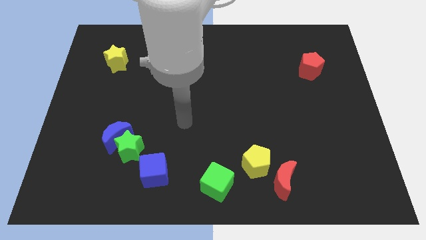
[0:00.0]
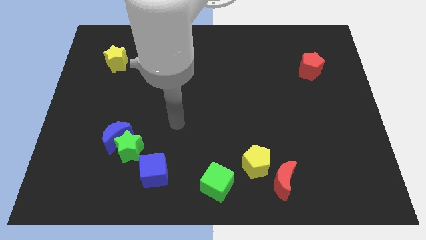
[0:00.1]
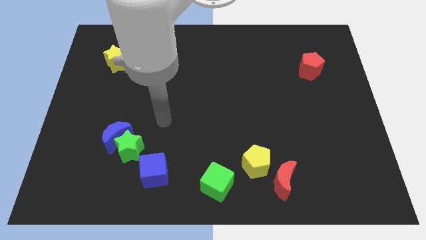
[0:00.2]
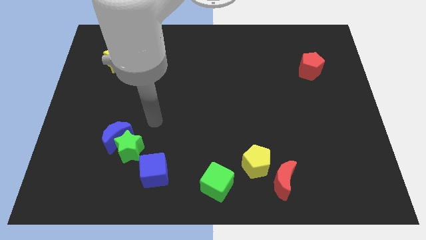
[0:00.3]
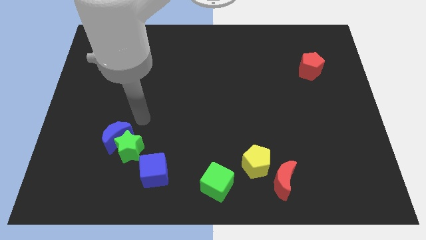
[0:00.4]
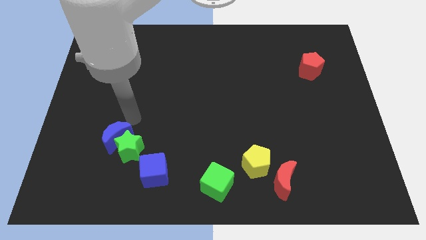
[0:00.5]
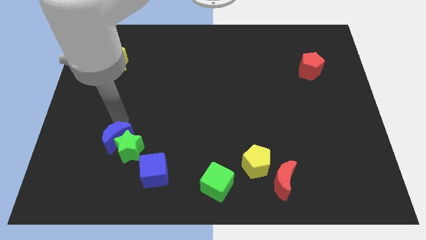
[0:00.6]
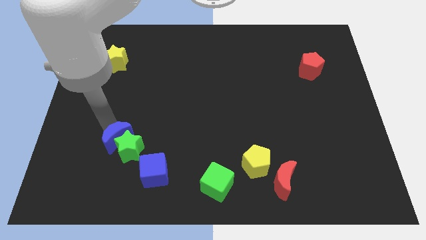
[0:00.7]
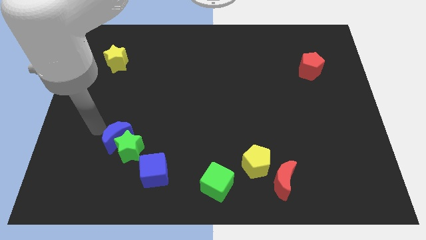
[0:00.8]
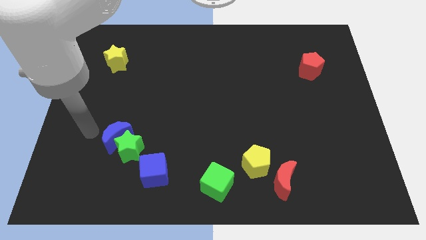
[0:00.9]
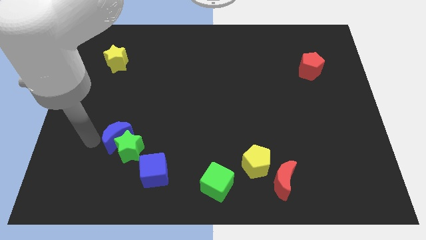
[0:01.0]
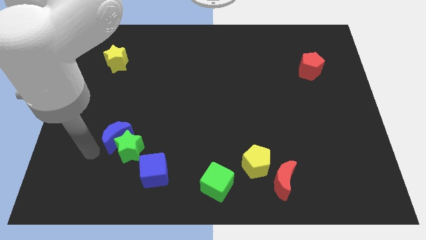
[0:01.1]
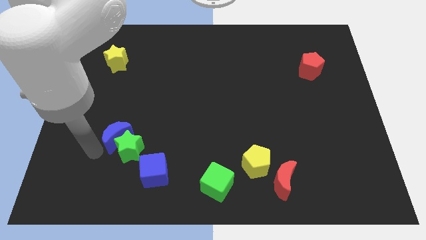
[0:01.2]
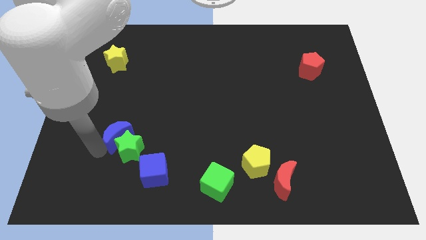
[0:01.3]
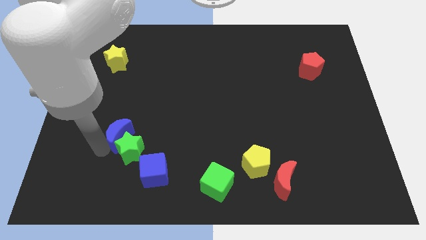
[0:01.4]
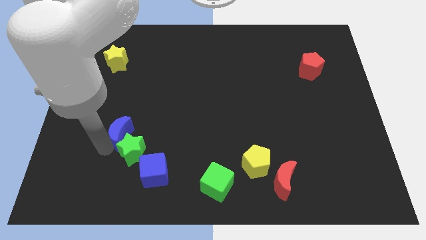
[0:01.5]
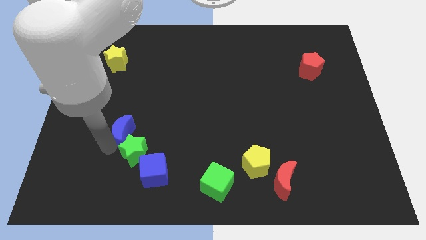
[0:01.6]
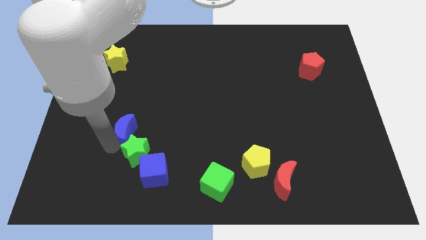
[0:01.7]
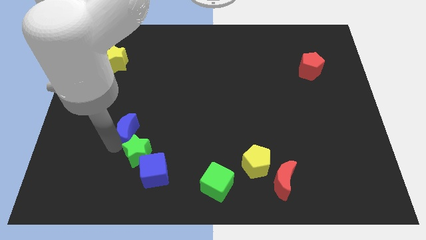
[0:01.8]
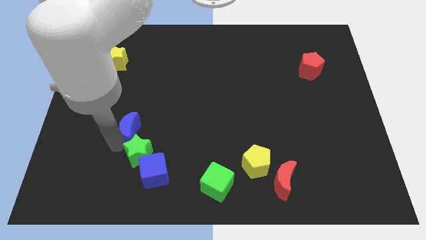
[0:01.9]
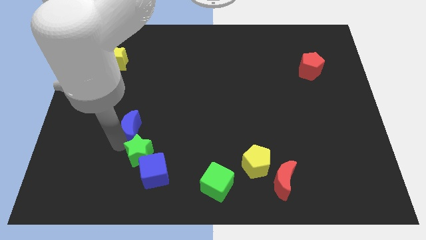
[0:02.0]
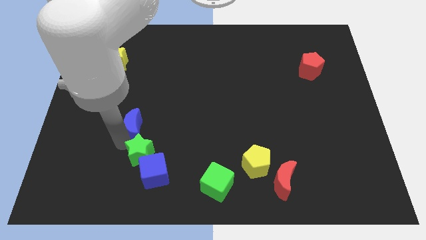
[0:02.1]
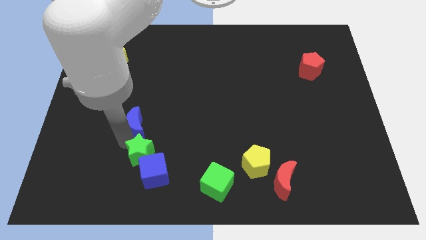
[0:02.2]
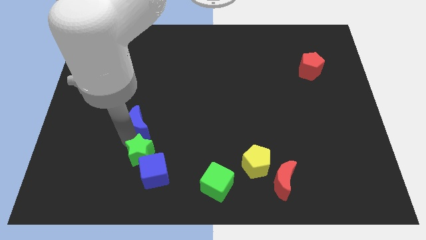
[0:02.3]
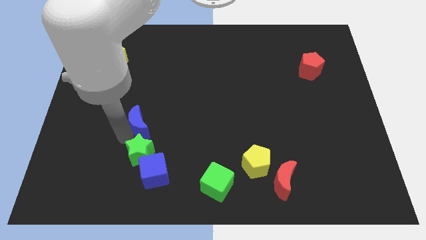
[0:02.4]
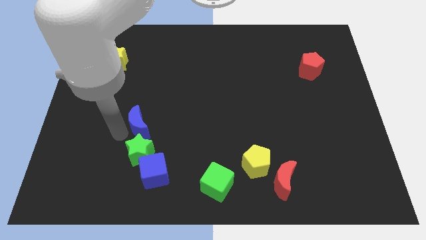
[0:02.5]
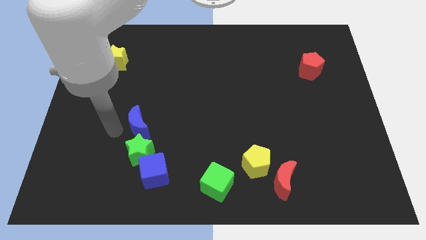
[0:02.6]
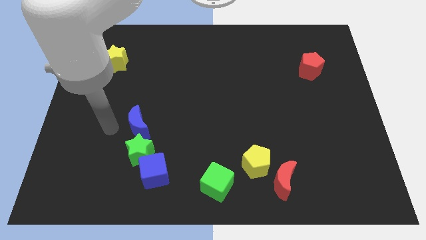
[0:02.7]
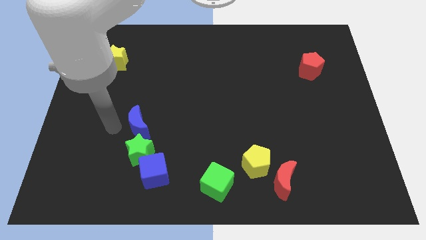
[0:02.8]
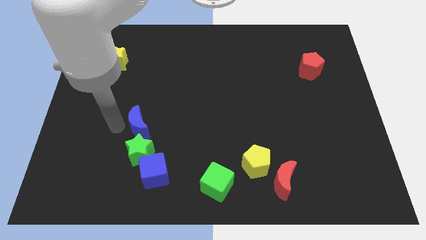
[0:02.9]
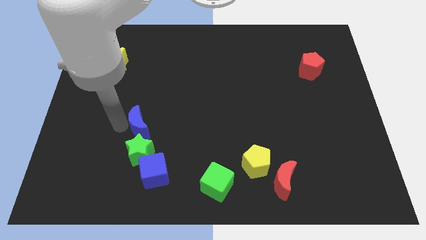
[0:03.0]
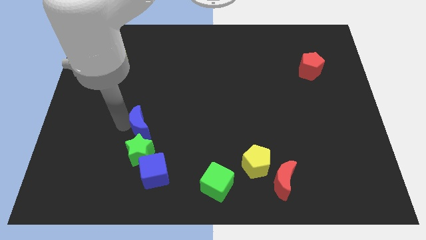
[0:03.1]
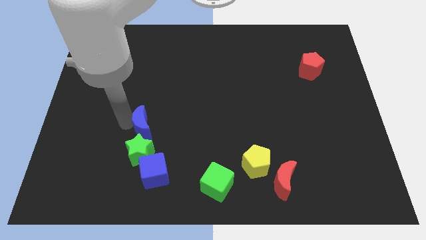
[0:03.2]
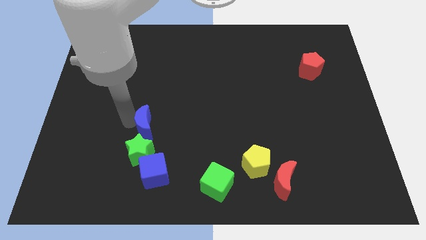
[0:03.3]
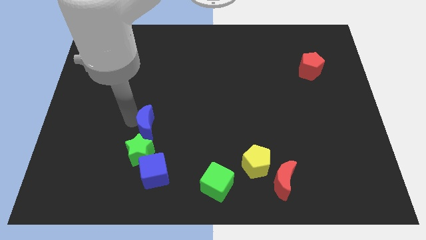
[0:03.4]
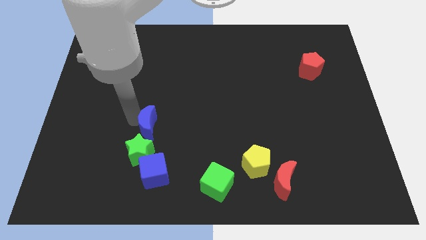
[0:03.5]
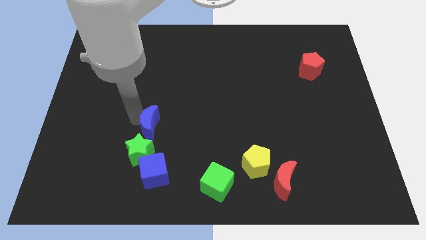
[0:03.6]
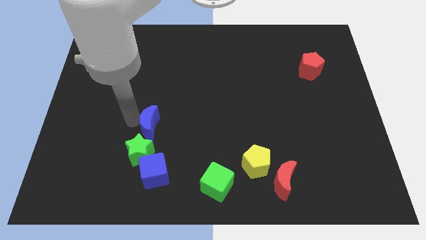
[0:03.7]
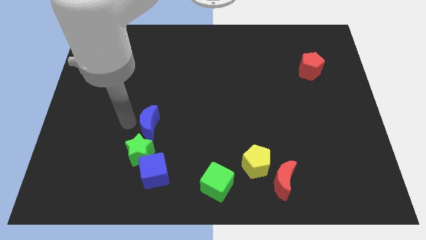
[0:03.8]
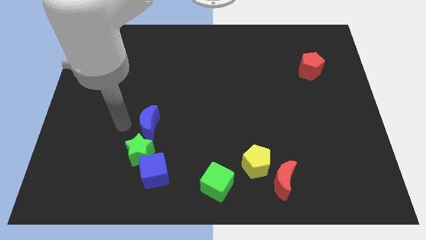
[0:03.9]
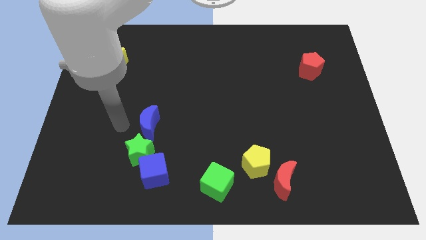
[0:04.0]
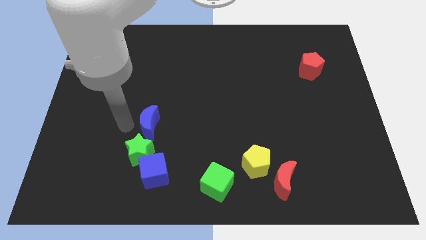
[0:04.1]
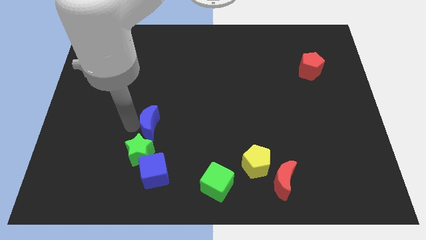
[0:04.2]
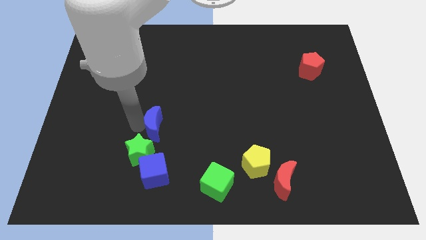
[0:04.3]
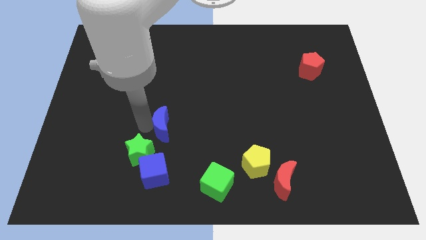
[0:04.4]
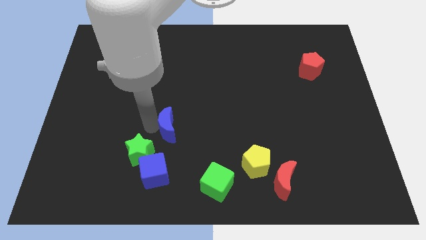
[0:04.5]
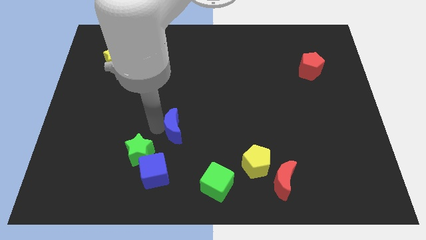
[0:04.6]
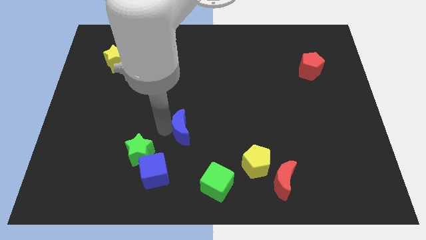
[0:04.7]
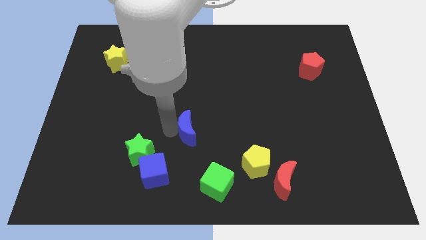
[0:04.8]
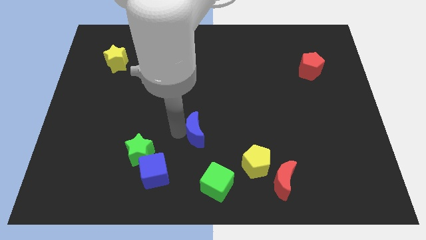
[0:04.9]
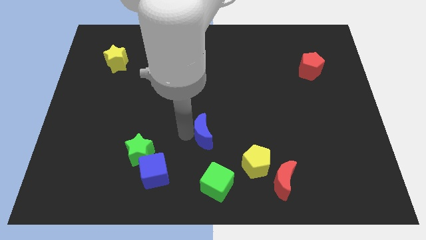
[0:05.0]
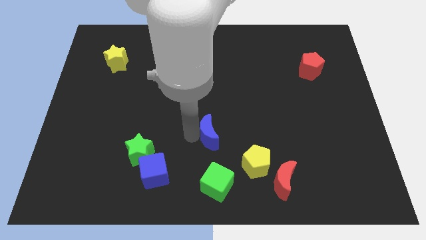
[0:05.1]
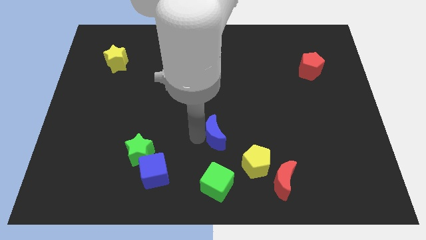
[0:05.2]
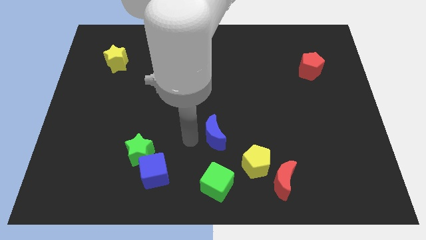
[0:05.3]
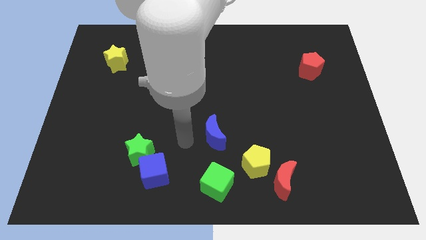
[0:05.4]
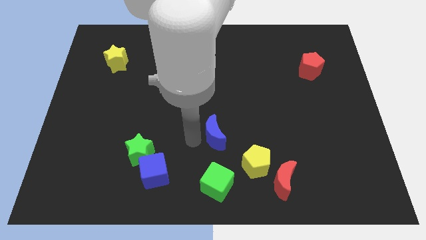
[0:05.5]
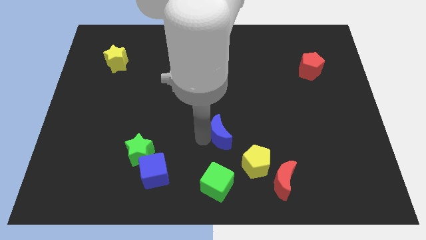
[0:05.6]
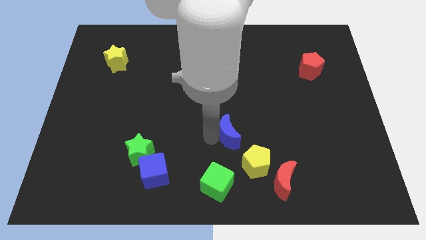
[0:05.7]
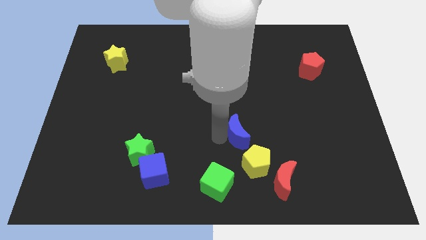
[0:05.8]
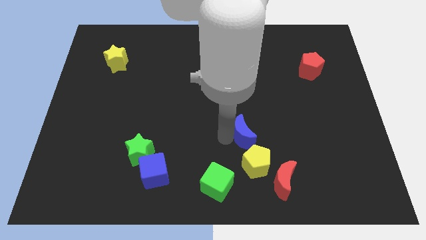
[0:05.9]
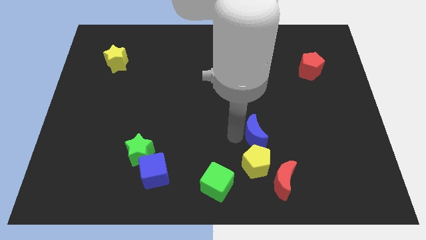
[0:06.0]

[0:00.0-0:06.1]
slide the blue moon to the top side of the red moon

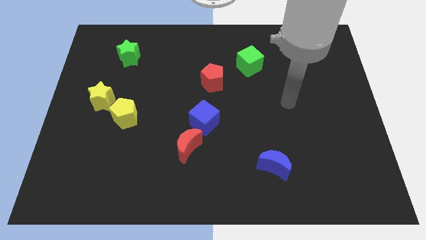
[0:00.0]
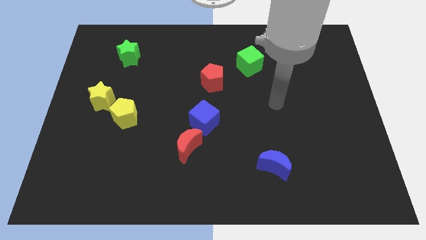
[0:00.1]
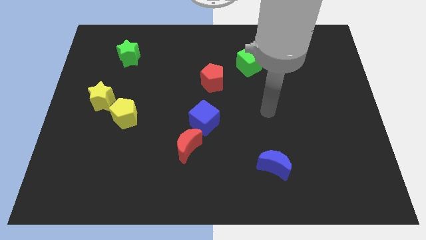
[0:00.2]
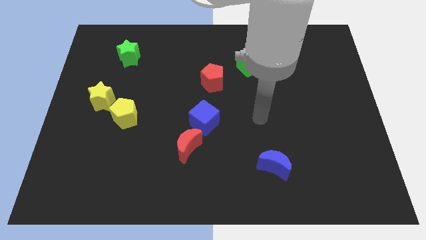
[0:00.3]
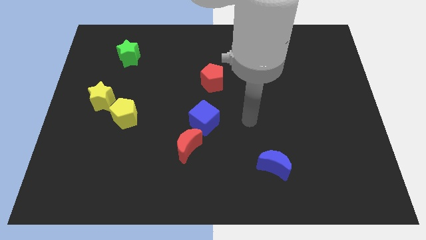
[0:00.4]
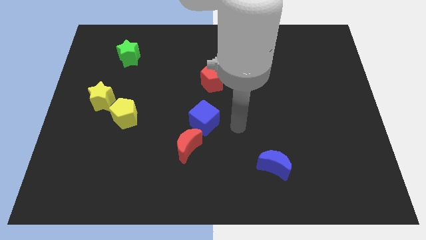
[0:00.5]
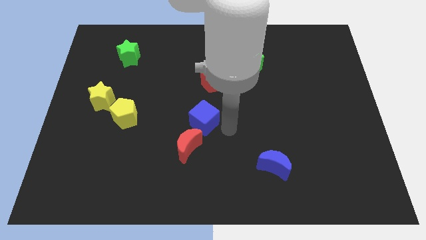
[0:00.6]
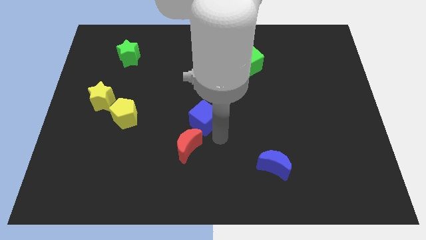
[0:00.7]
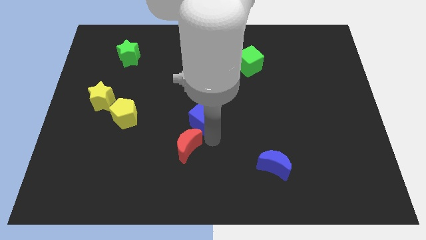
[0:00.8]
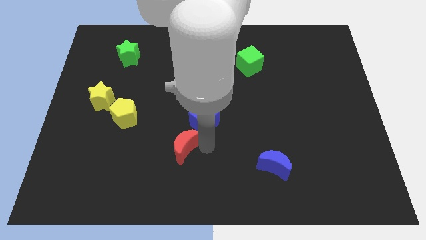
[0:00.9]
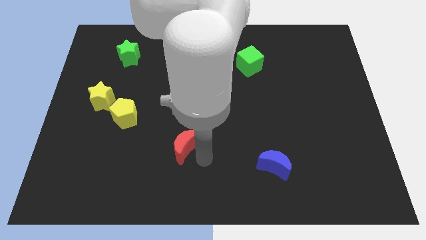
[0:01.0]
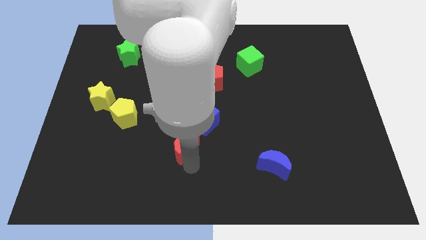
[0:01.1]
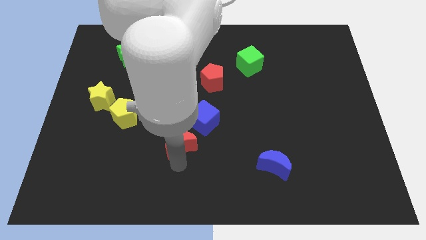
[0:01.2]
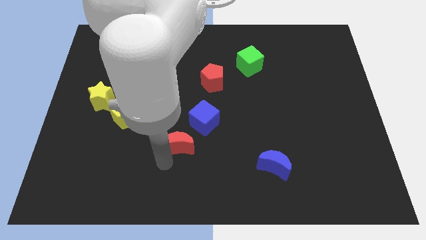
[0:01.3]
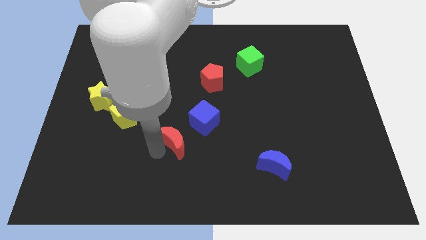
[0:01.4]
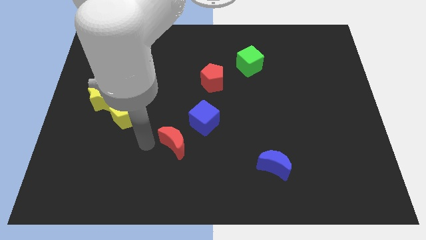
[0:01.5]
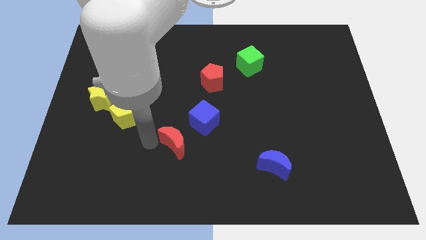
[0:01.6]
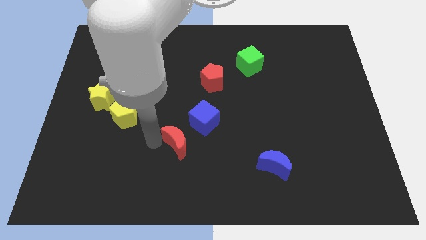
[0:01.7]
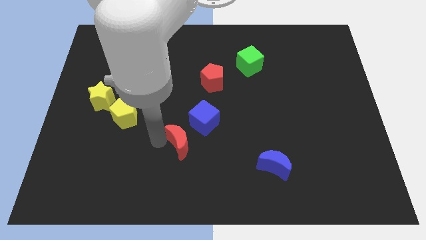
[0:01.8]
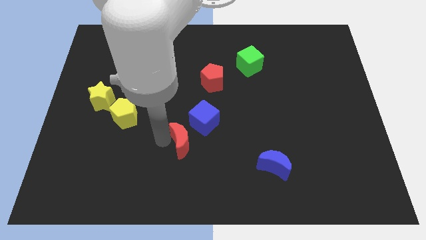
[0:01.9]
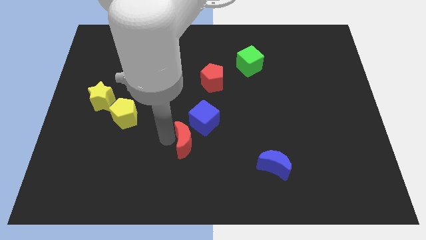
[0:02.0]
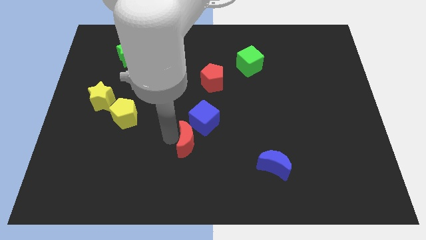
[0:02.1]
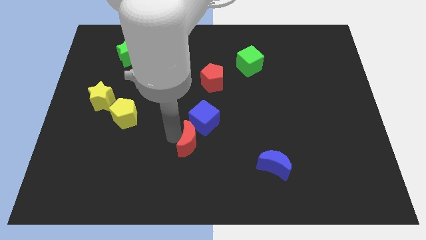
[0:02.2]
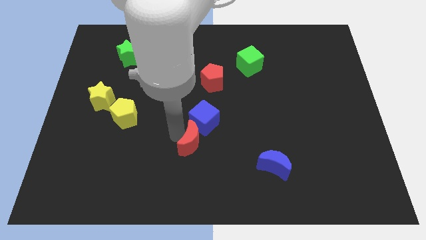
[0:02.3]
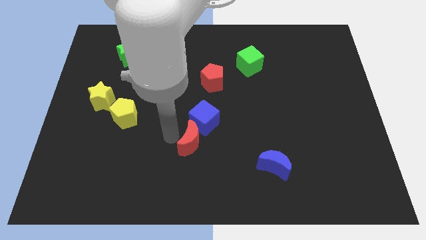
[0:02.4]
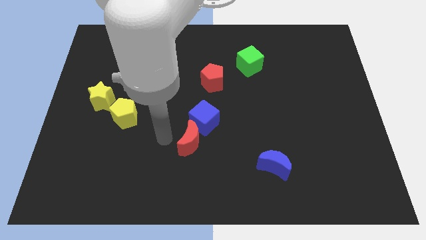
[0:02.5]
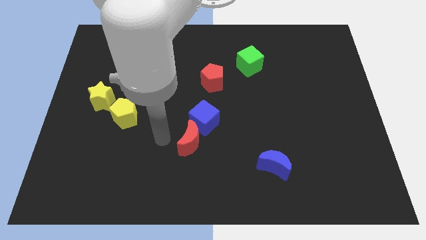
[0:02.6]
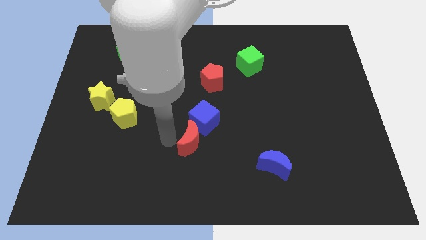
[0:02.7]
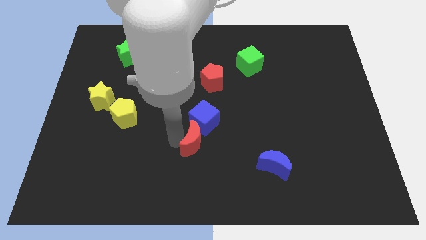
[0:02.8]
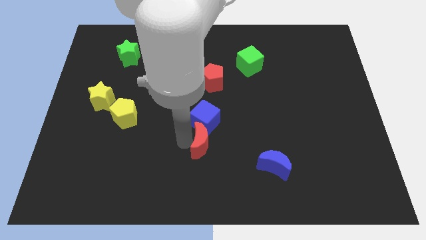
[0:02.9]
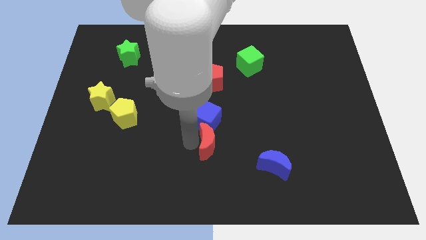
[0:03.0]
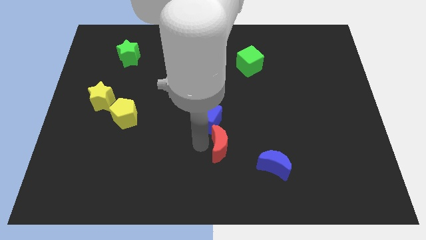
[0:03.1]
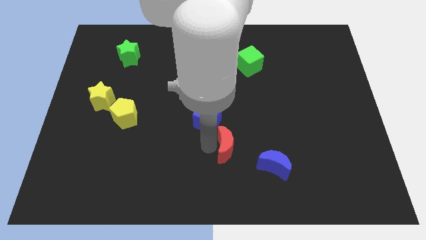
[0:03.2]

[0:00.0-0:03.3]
put the red moon diagonally up and to the left of the blue moon
